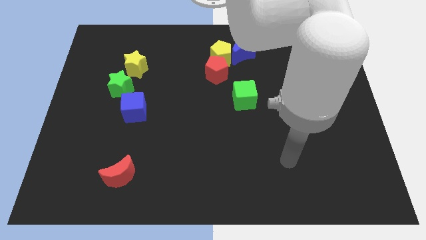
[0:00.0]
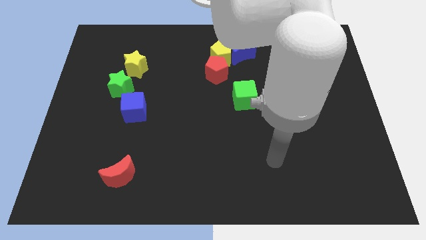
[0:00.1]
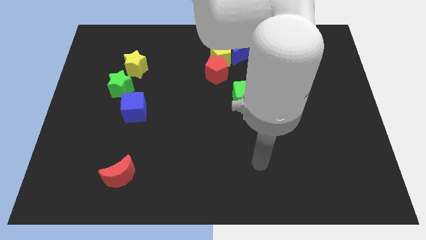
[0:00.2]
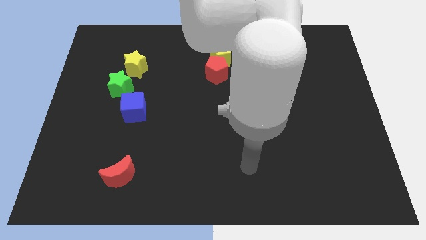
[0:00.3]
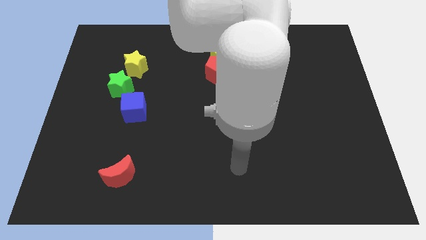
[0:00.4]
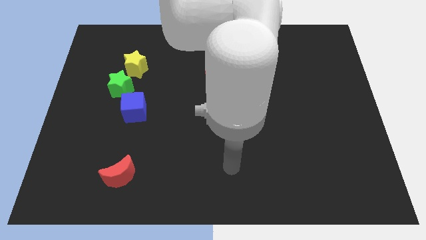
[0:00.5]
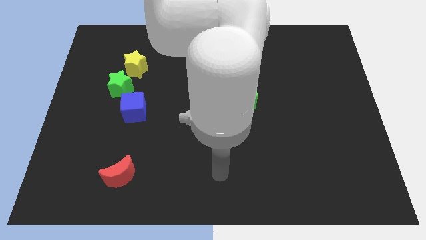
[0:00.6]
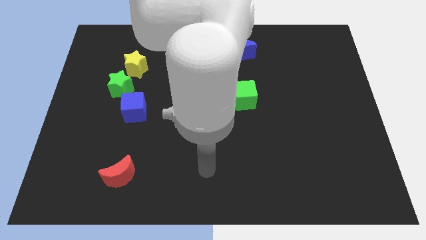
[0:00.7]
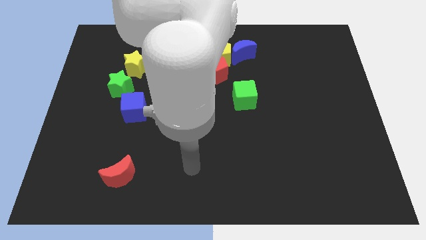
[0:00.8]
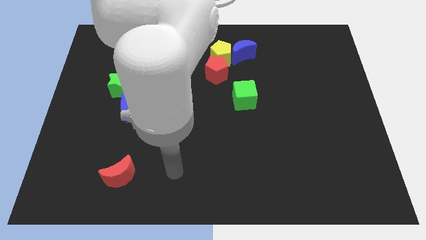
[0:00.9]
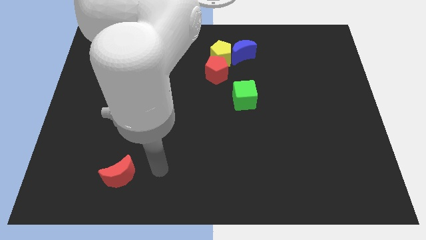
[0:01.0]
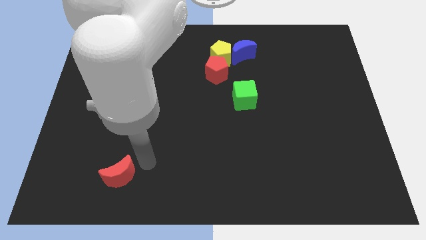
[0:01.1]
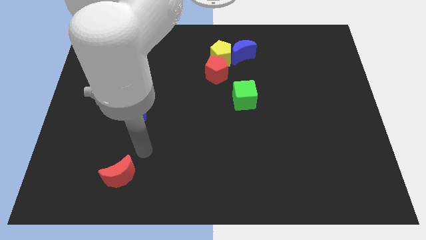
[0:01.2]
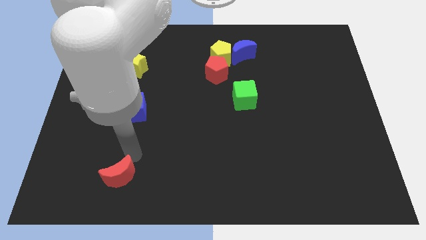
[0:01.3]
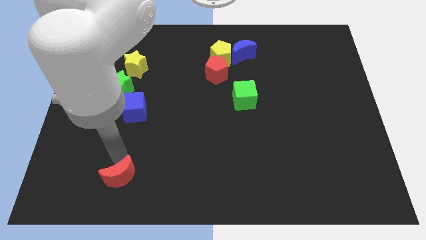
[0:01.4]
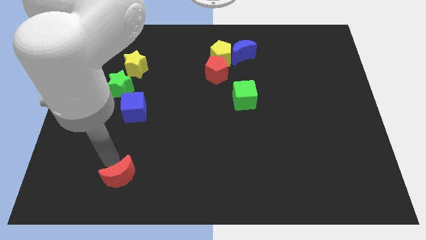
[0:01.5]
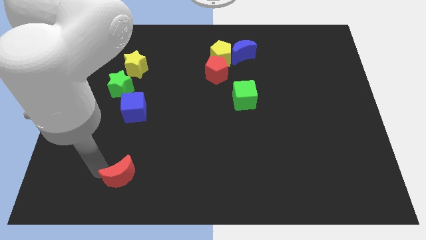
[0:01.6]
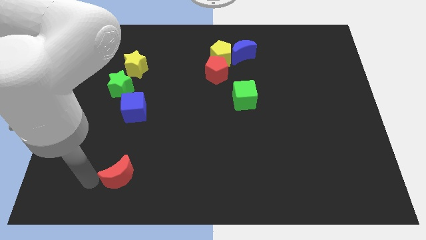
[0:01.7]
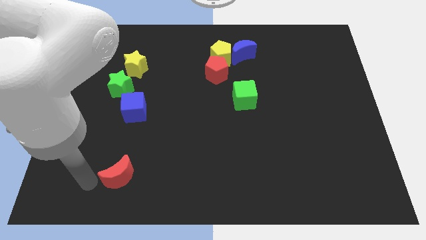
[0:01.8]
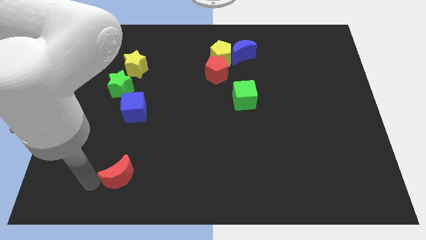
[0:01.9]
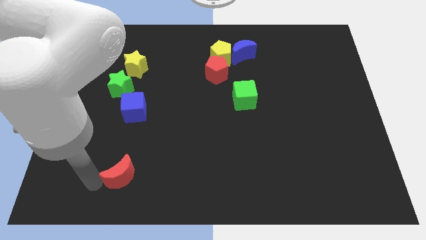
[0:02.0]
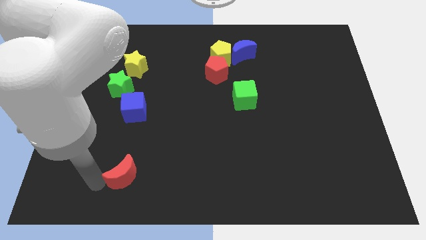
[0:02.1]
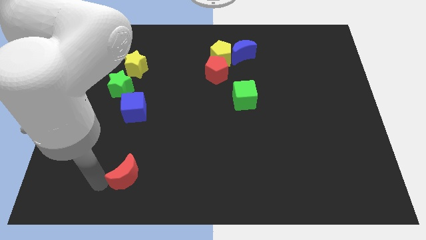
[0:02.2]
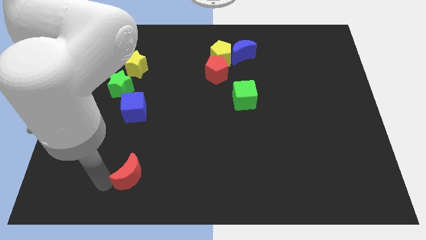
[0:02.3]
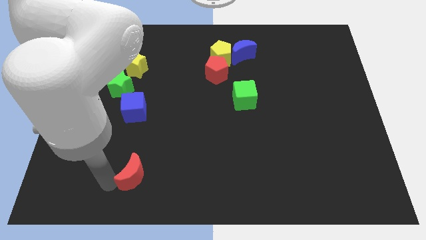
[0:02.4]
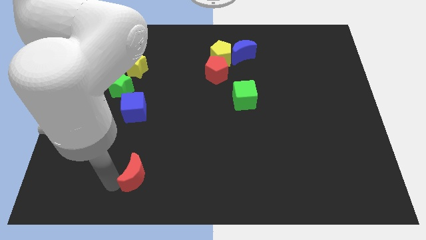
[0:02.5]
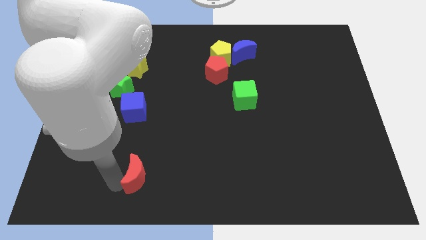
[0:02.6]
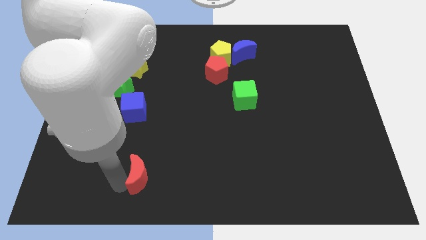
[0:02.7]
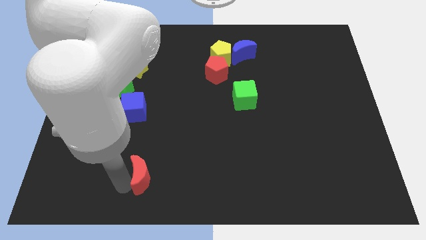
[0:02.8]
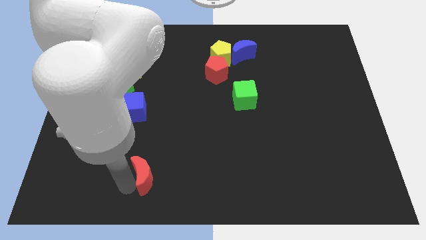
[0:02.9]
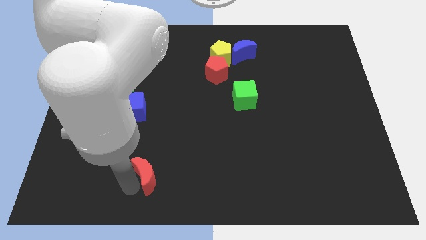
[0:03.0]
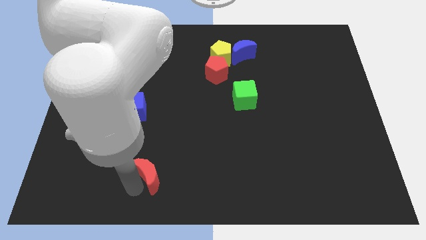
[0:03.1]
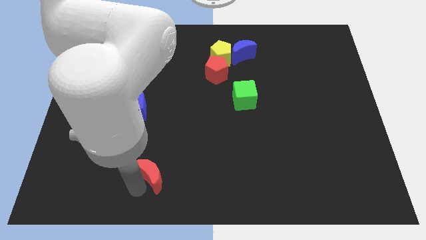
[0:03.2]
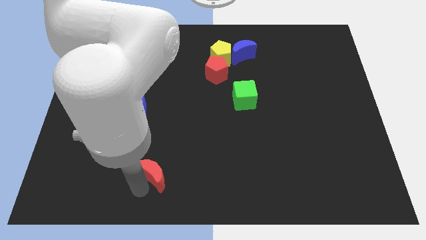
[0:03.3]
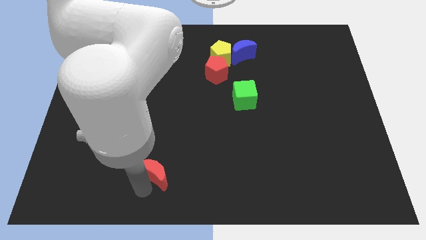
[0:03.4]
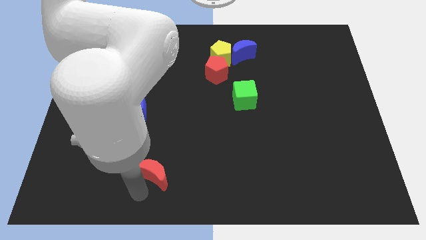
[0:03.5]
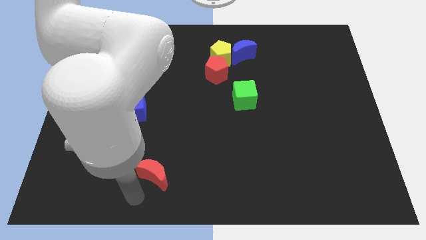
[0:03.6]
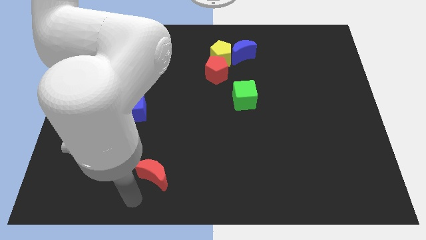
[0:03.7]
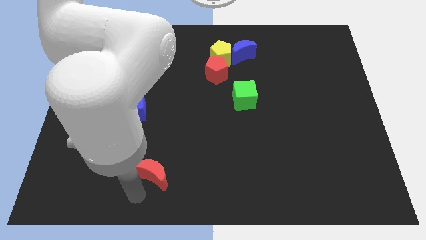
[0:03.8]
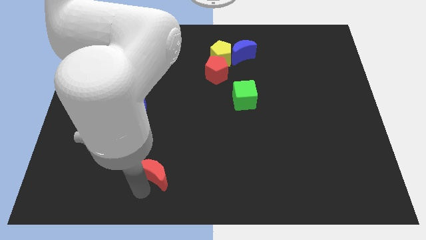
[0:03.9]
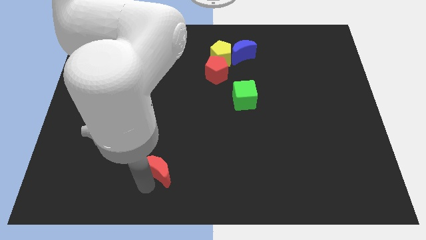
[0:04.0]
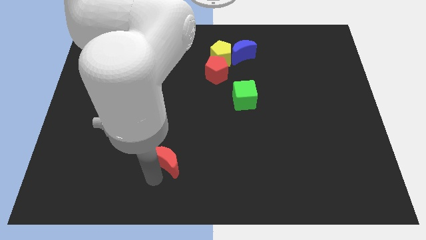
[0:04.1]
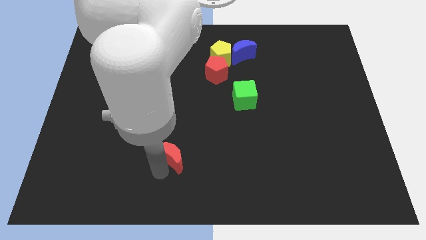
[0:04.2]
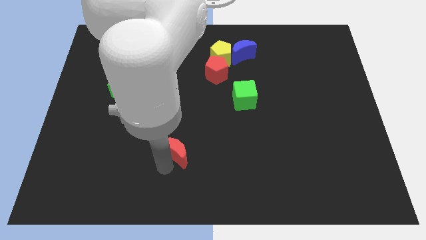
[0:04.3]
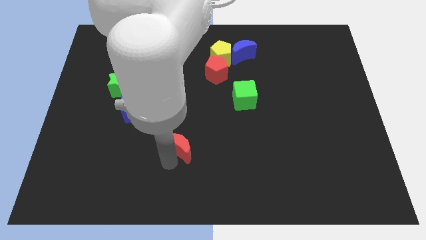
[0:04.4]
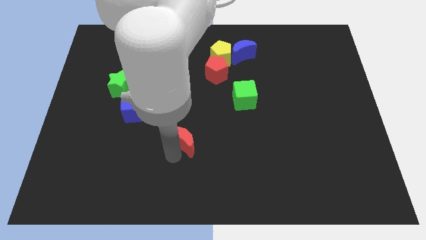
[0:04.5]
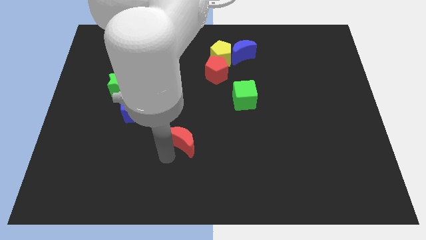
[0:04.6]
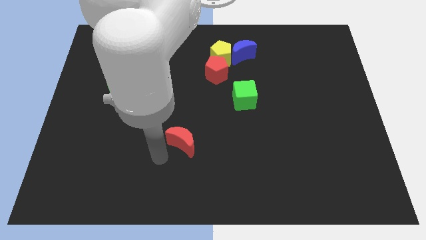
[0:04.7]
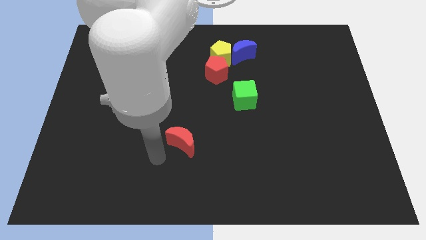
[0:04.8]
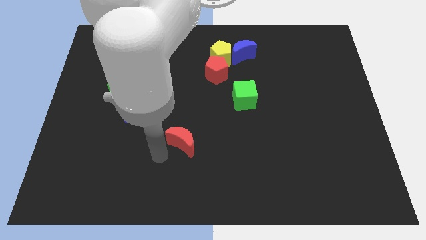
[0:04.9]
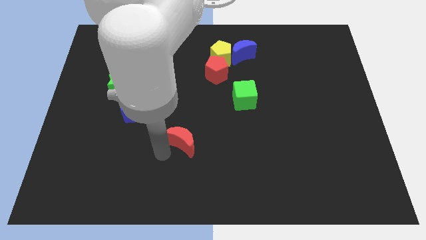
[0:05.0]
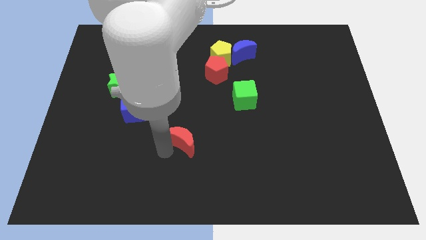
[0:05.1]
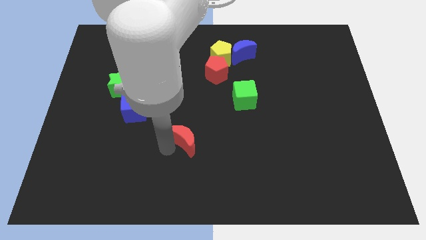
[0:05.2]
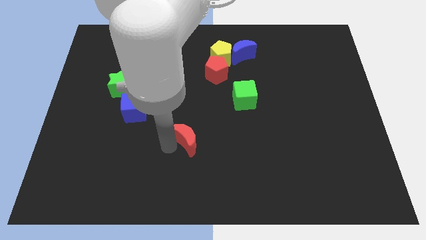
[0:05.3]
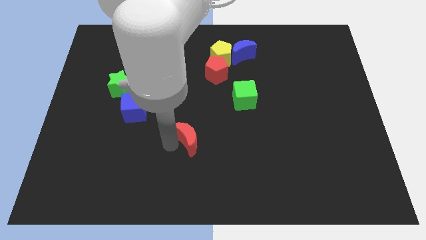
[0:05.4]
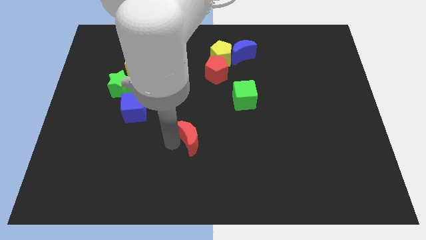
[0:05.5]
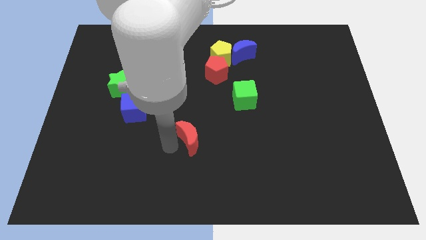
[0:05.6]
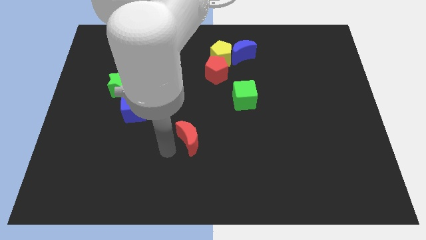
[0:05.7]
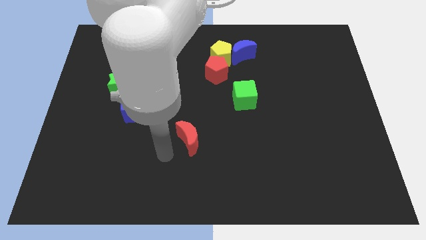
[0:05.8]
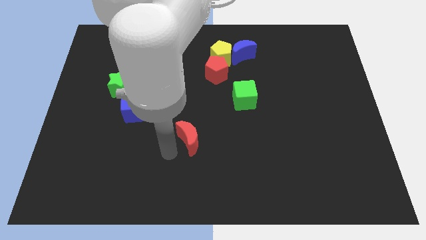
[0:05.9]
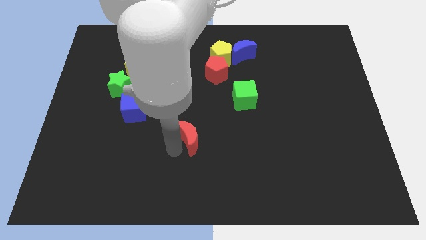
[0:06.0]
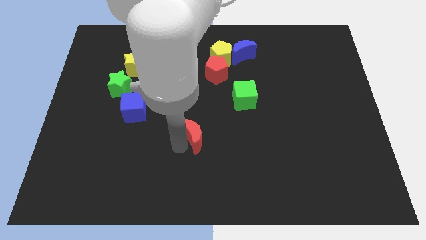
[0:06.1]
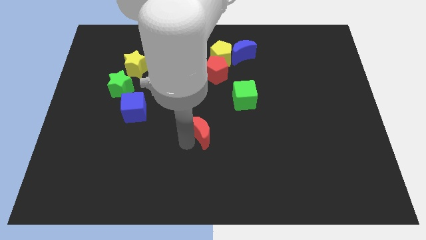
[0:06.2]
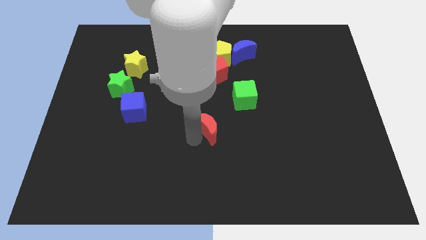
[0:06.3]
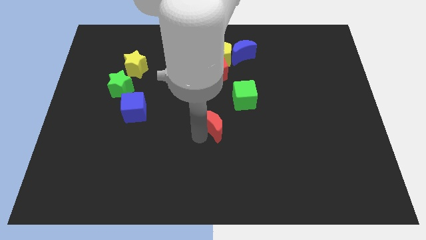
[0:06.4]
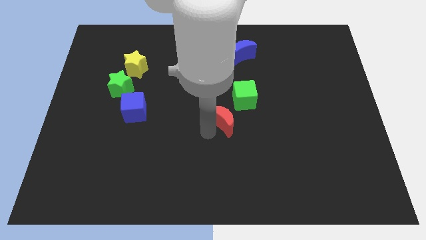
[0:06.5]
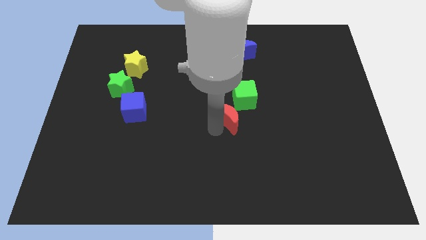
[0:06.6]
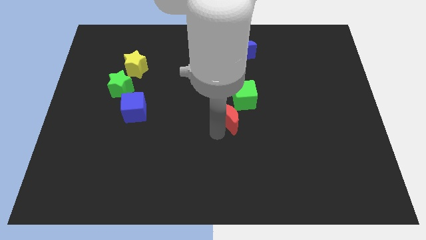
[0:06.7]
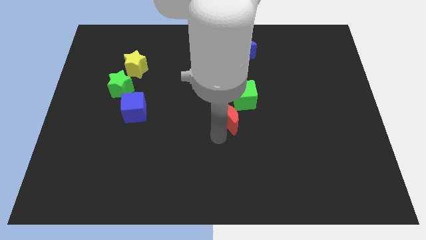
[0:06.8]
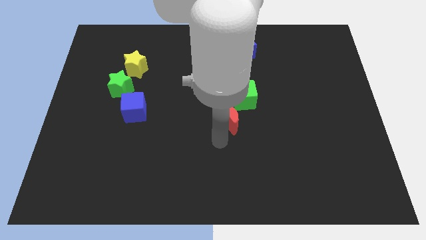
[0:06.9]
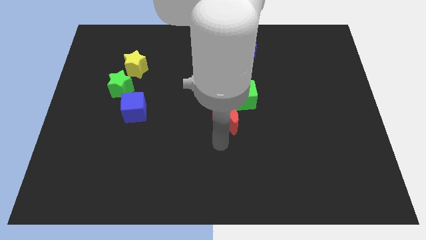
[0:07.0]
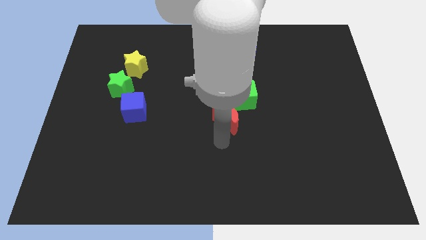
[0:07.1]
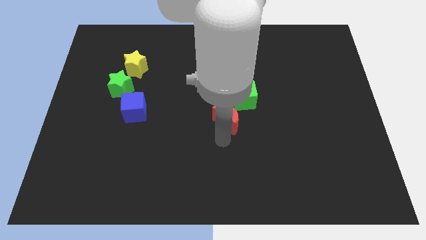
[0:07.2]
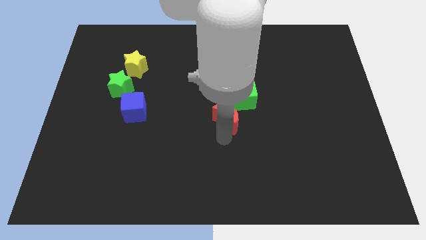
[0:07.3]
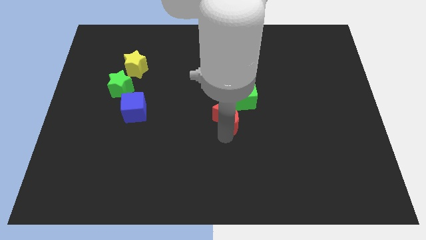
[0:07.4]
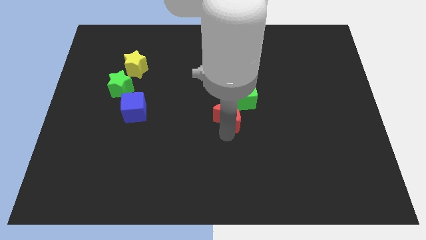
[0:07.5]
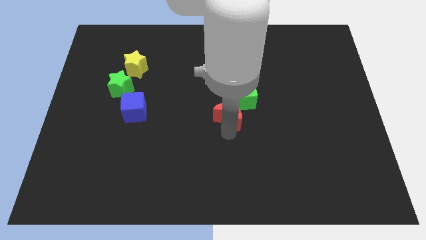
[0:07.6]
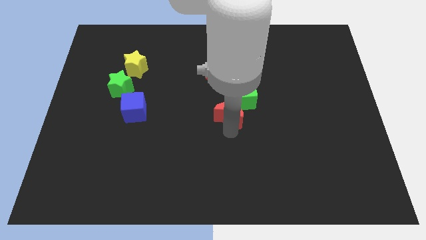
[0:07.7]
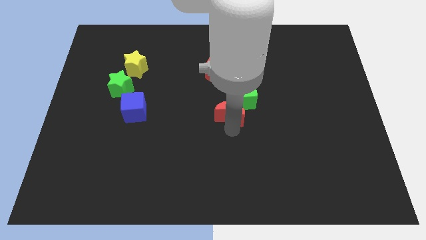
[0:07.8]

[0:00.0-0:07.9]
put the red moon close to the green cube
